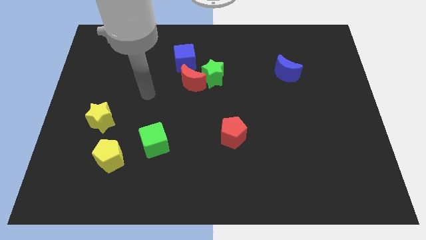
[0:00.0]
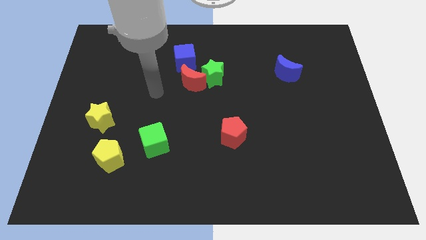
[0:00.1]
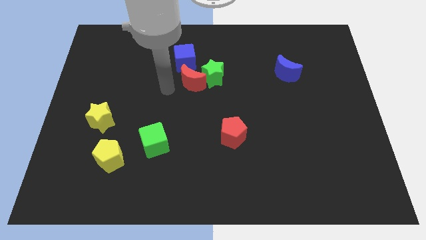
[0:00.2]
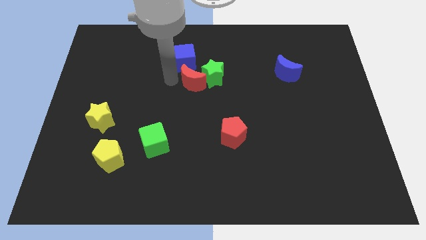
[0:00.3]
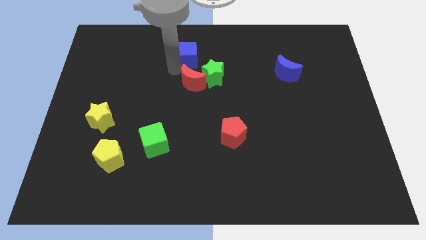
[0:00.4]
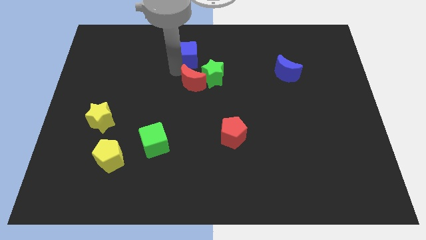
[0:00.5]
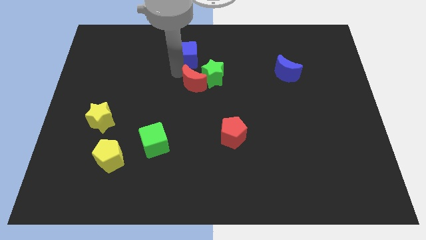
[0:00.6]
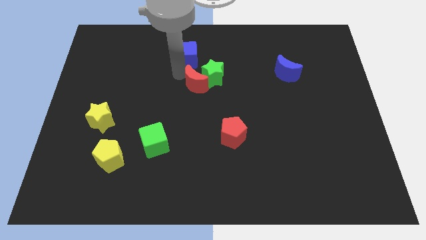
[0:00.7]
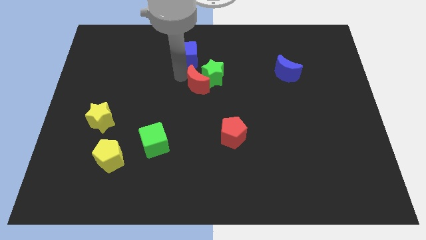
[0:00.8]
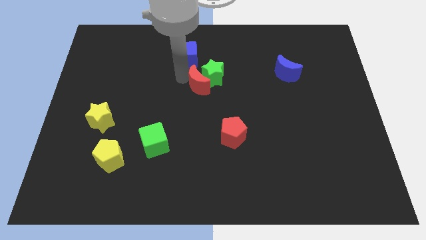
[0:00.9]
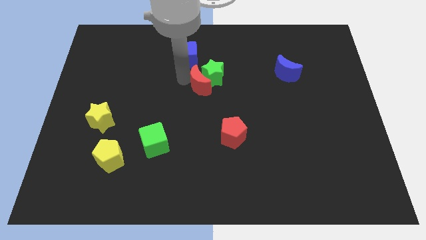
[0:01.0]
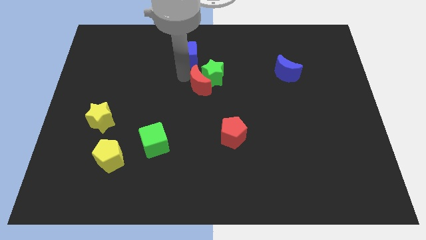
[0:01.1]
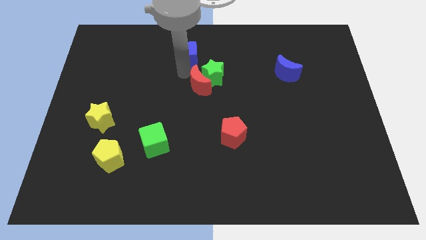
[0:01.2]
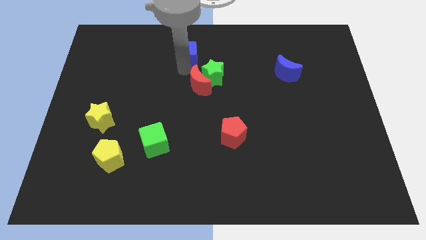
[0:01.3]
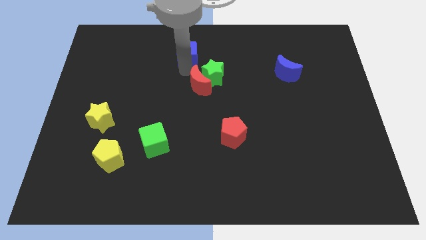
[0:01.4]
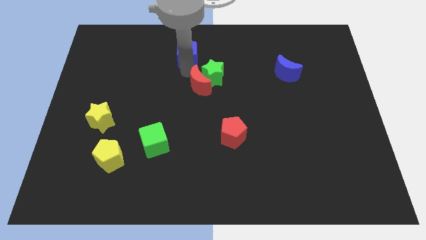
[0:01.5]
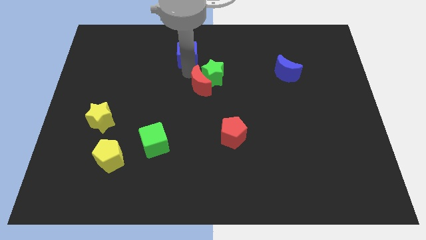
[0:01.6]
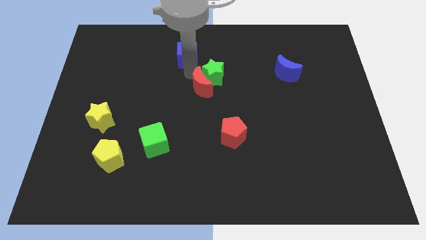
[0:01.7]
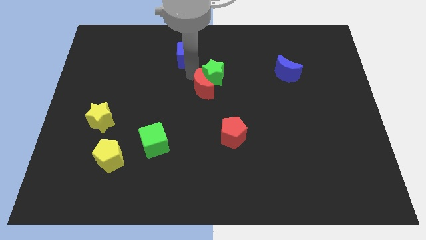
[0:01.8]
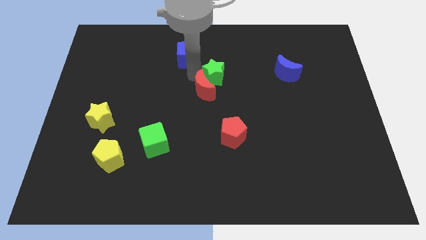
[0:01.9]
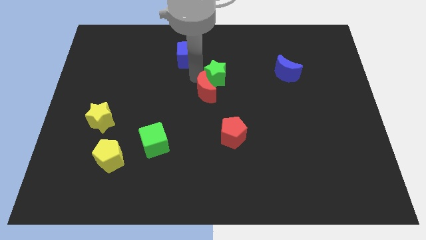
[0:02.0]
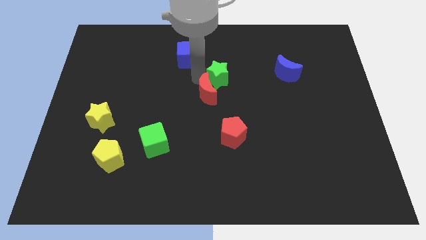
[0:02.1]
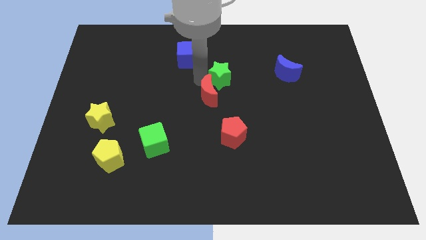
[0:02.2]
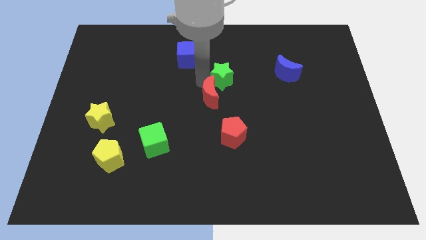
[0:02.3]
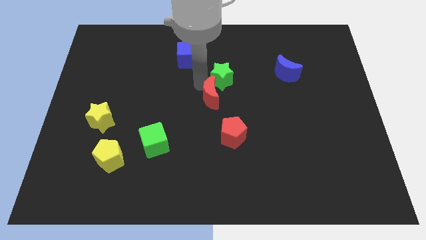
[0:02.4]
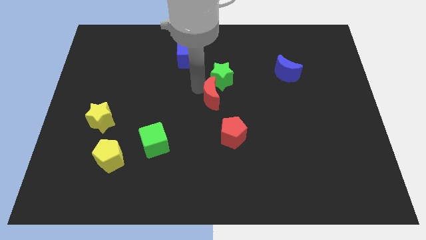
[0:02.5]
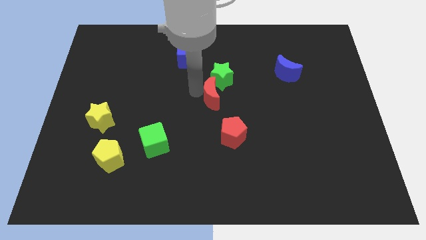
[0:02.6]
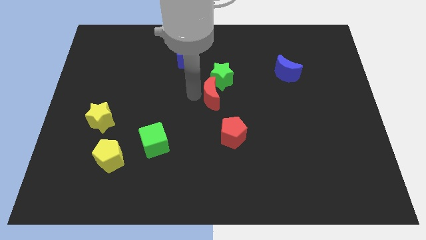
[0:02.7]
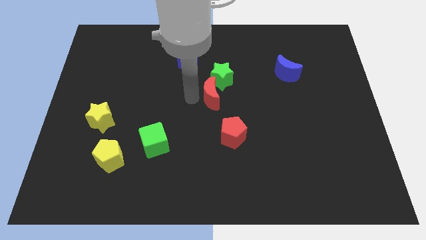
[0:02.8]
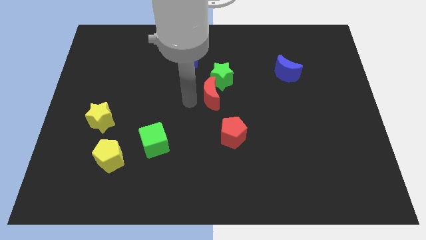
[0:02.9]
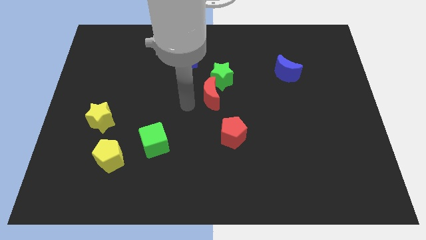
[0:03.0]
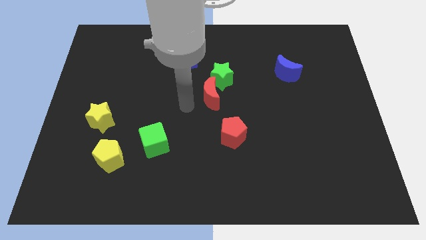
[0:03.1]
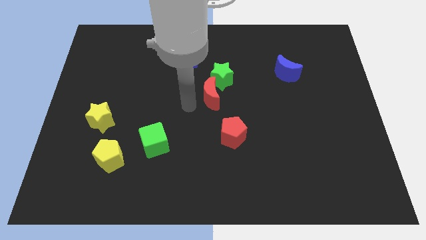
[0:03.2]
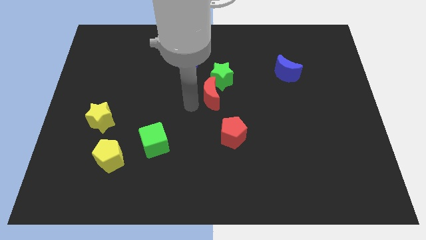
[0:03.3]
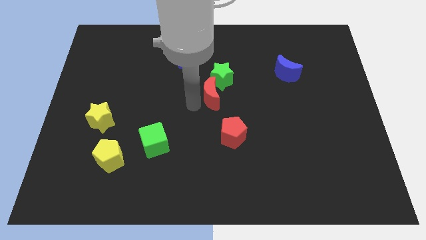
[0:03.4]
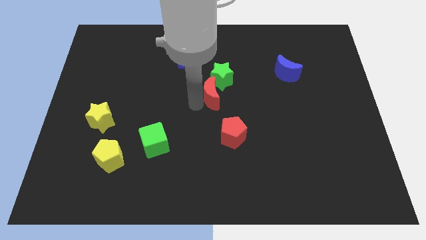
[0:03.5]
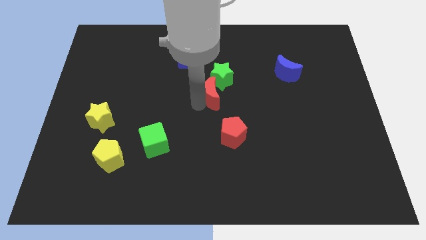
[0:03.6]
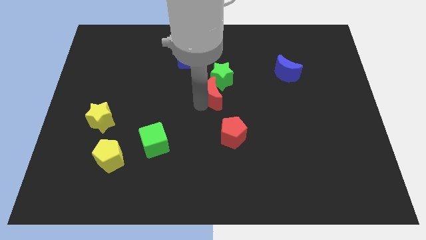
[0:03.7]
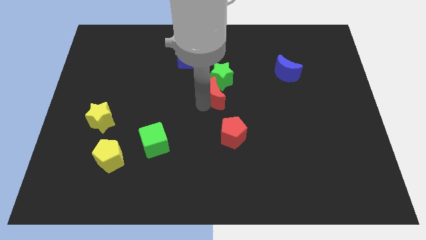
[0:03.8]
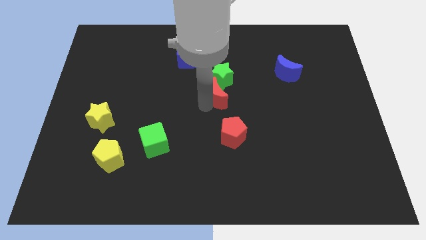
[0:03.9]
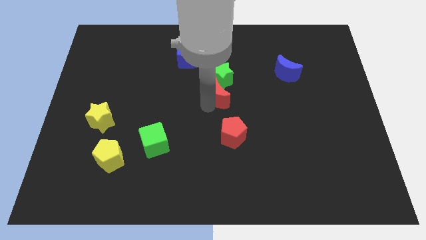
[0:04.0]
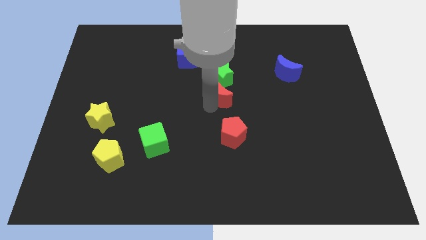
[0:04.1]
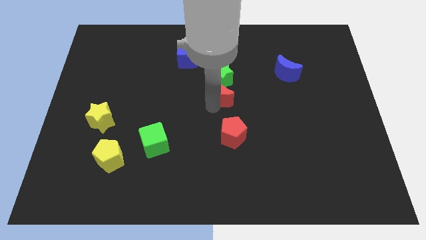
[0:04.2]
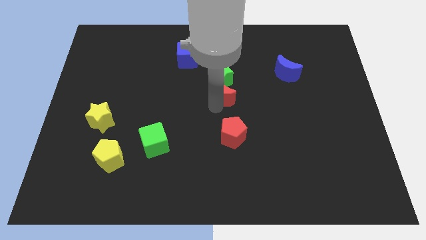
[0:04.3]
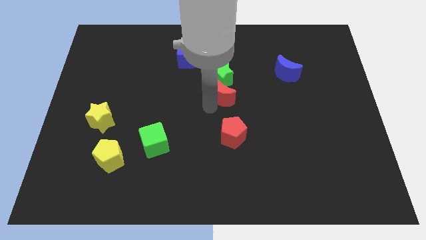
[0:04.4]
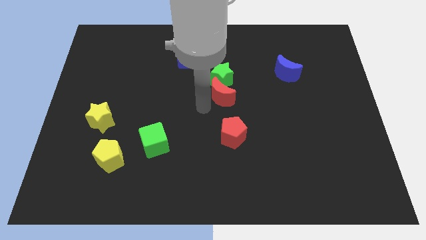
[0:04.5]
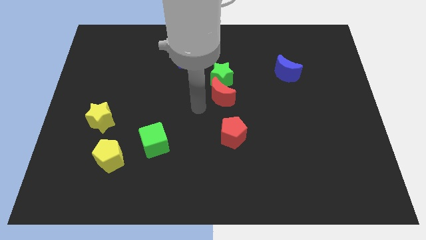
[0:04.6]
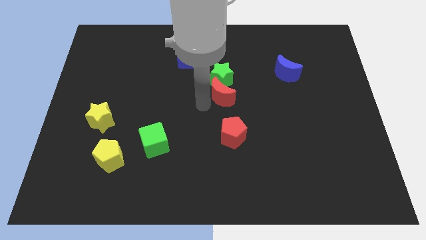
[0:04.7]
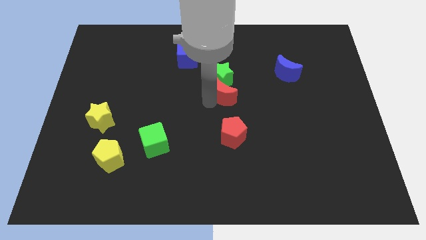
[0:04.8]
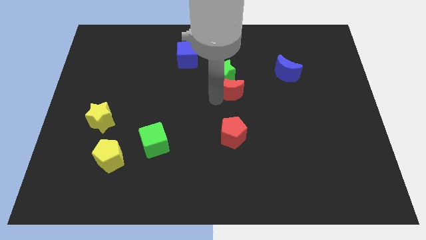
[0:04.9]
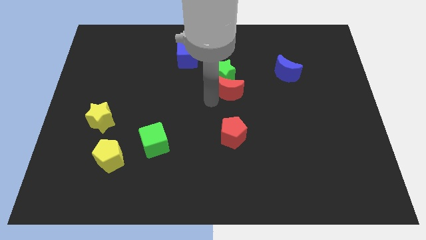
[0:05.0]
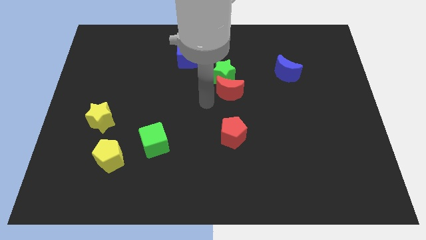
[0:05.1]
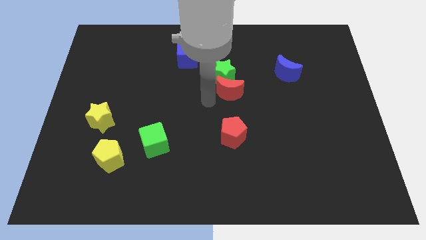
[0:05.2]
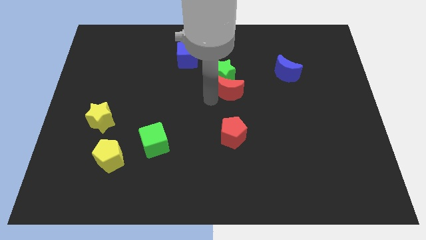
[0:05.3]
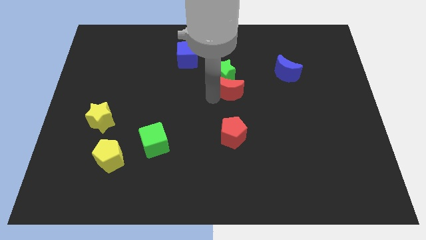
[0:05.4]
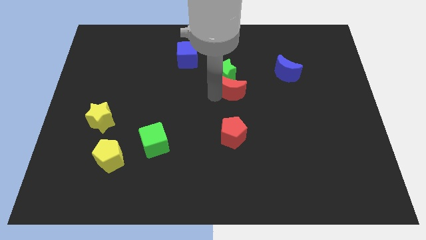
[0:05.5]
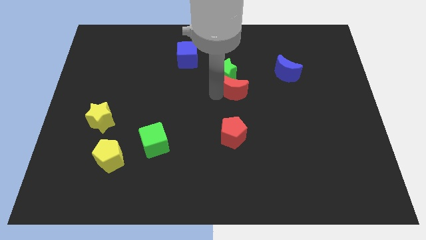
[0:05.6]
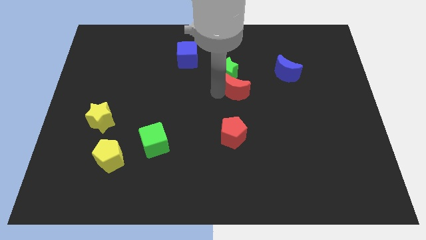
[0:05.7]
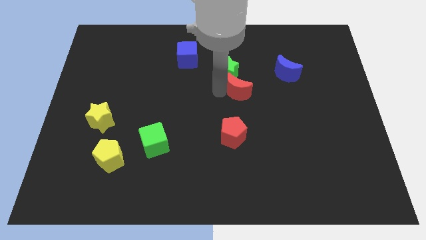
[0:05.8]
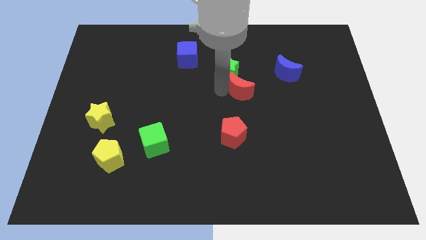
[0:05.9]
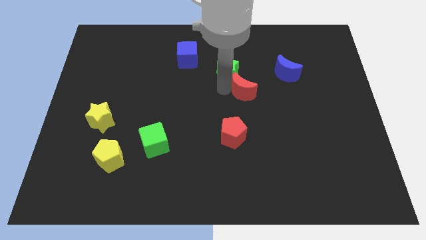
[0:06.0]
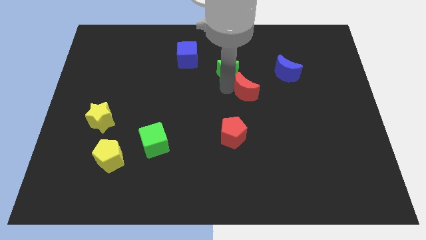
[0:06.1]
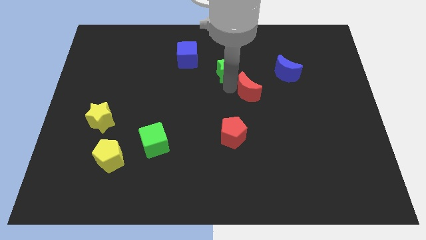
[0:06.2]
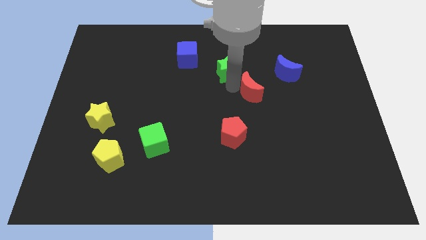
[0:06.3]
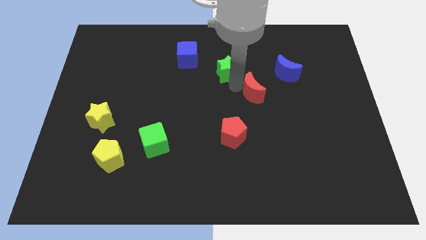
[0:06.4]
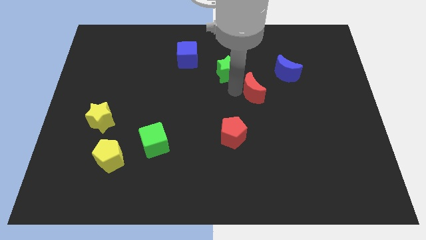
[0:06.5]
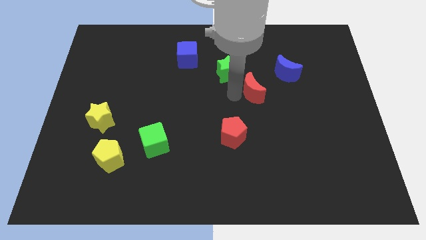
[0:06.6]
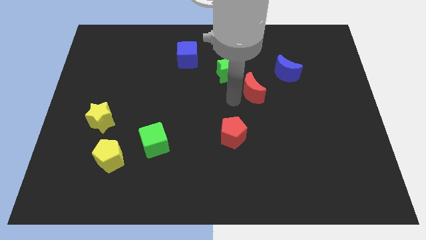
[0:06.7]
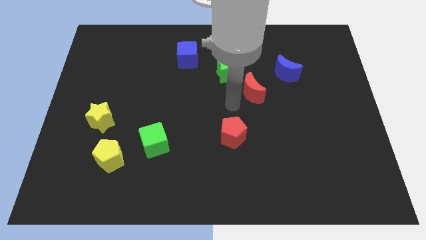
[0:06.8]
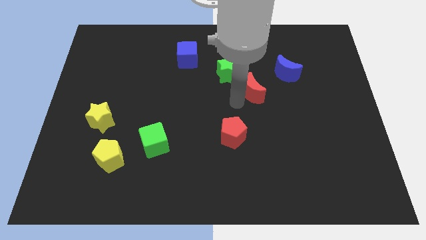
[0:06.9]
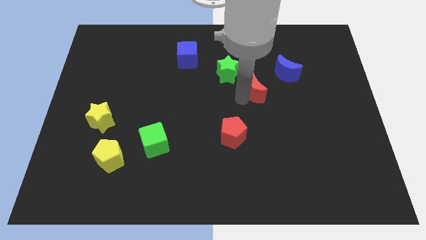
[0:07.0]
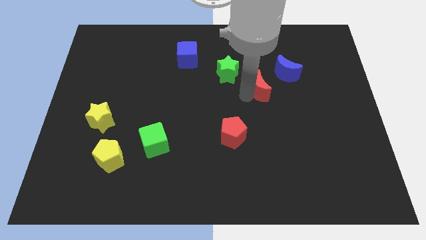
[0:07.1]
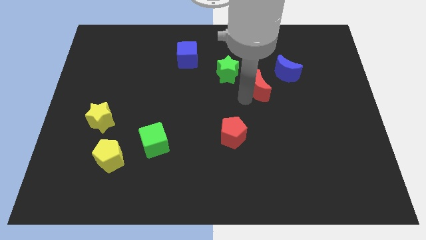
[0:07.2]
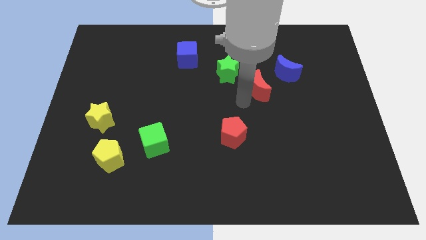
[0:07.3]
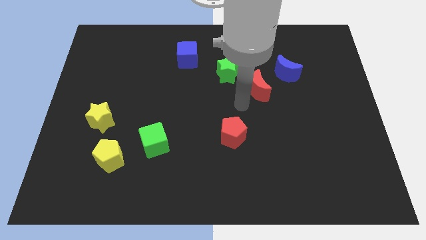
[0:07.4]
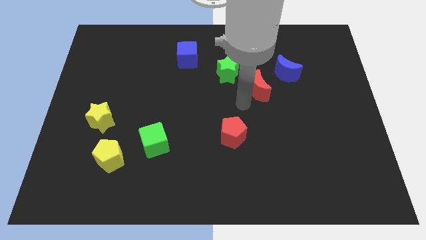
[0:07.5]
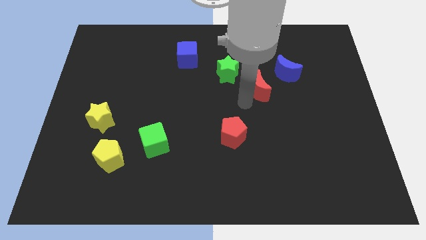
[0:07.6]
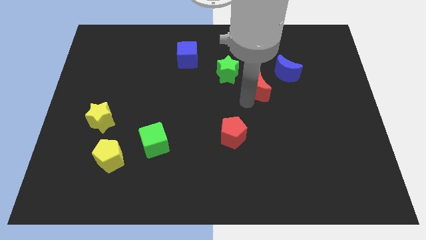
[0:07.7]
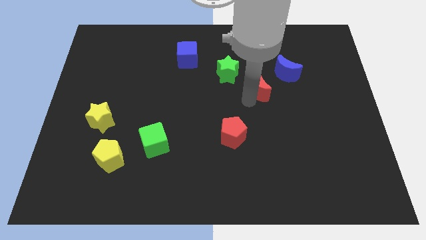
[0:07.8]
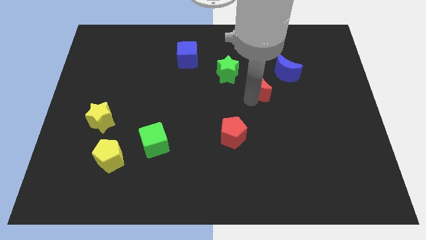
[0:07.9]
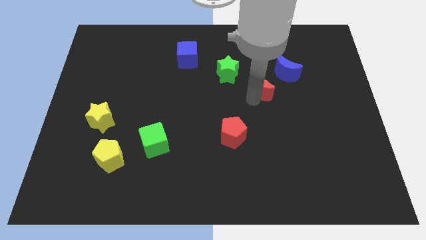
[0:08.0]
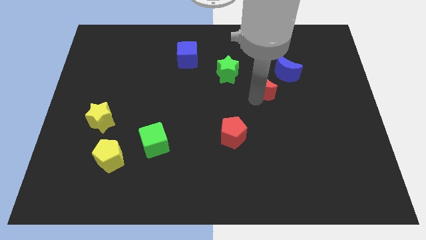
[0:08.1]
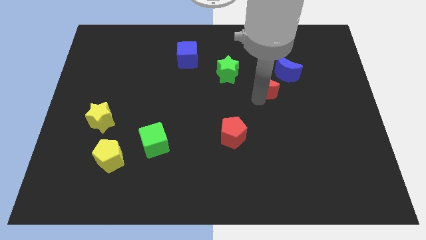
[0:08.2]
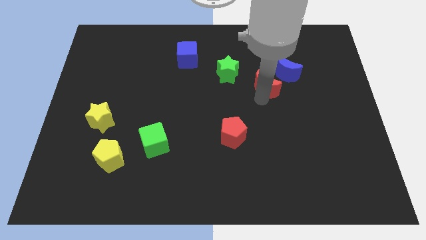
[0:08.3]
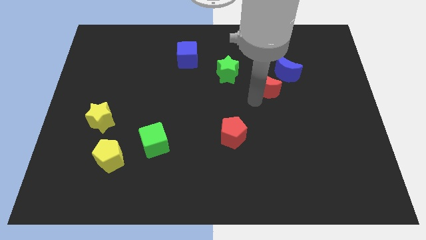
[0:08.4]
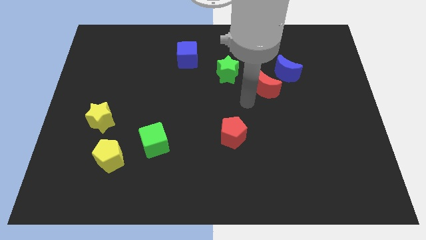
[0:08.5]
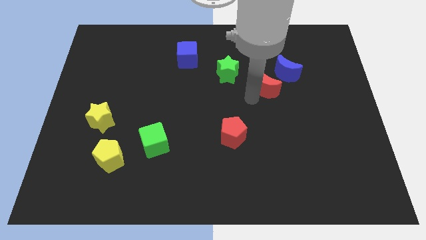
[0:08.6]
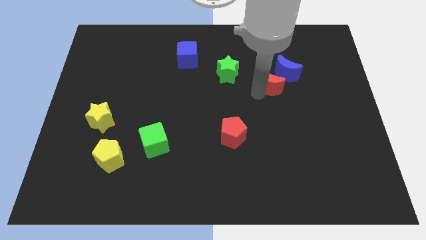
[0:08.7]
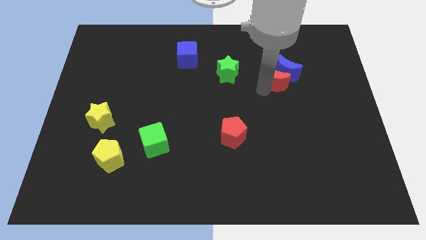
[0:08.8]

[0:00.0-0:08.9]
push the red moon next to the blue moon
